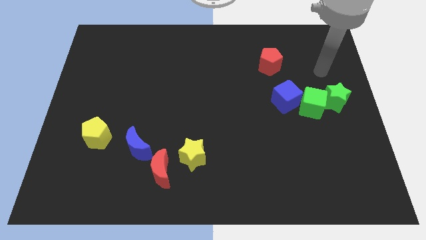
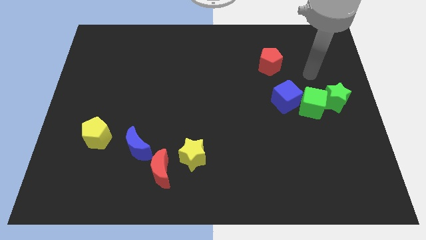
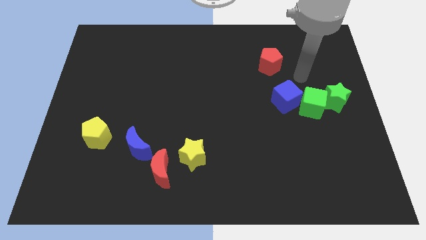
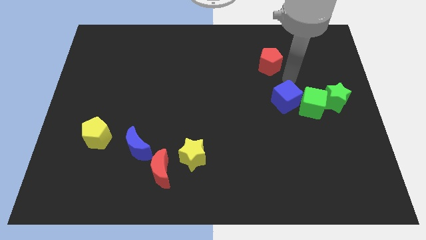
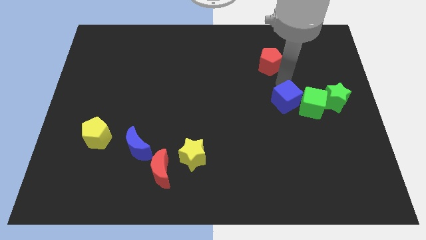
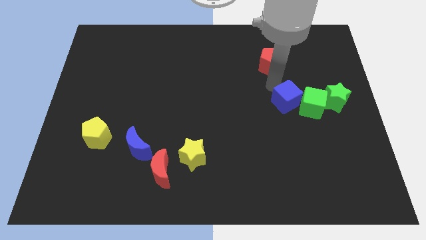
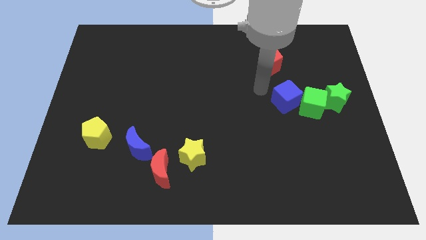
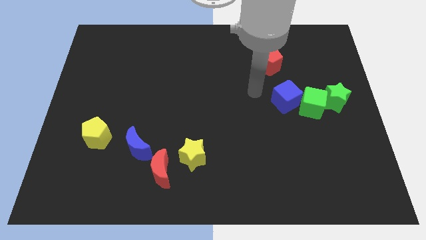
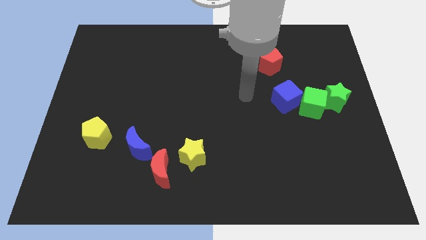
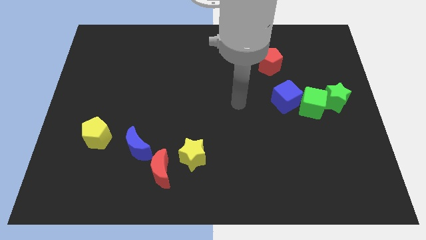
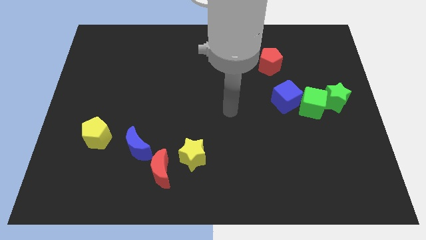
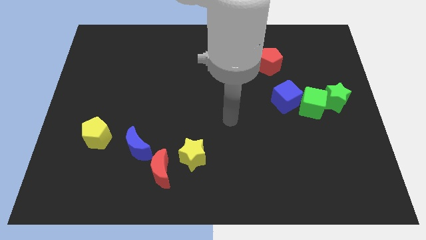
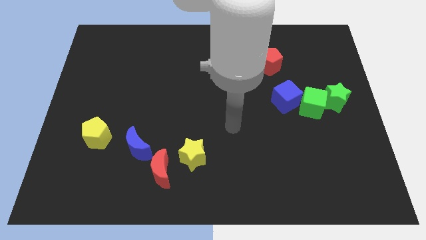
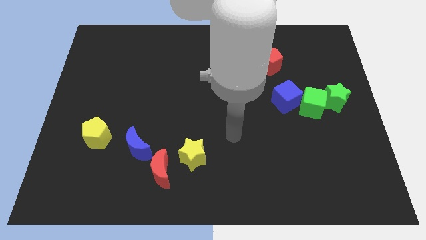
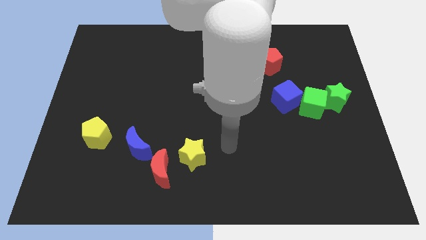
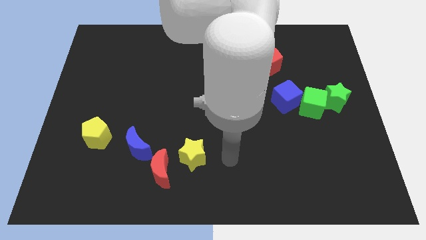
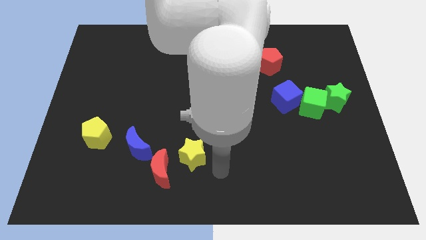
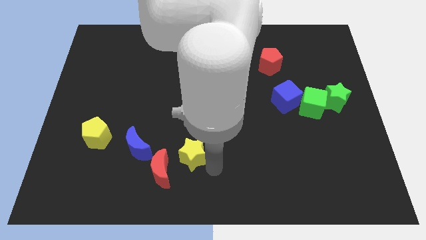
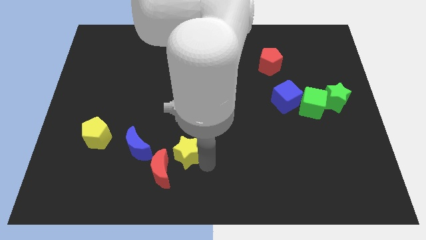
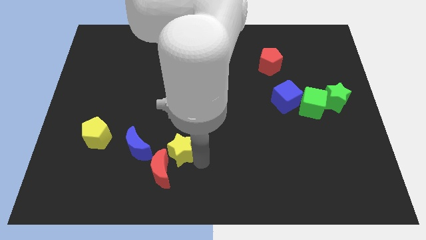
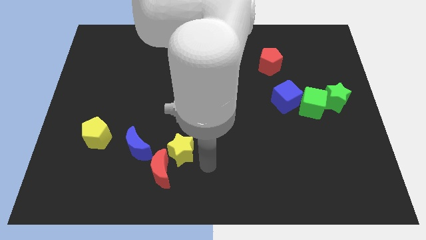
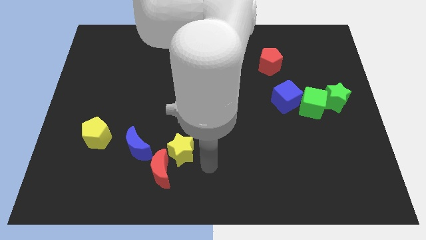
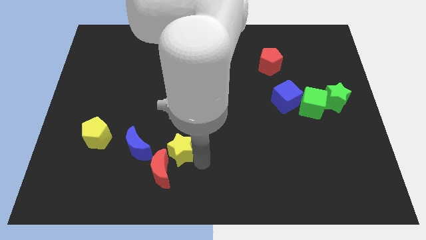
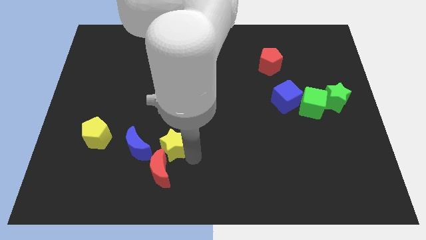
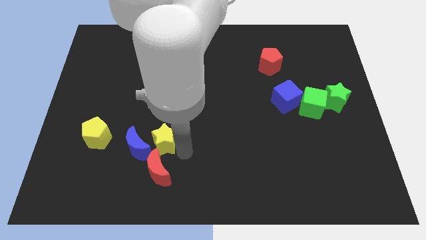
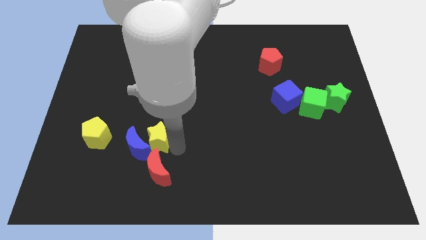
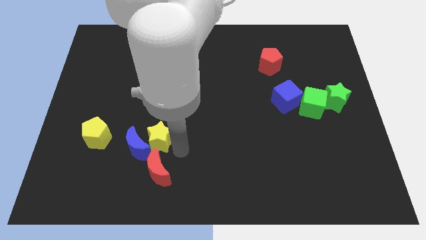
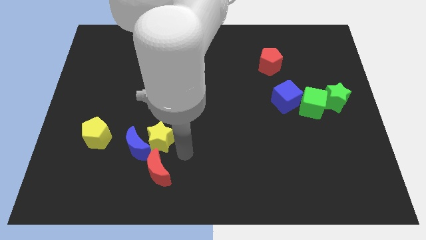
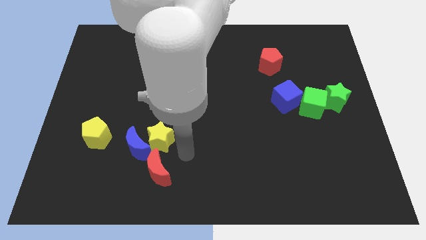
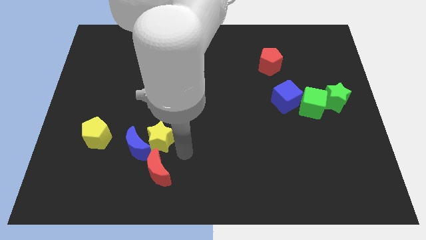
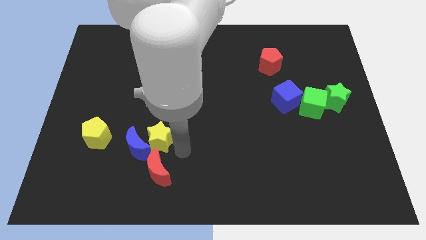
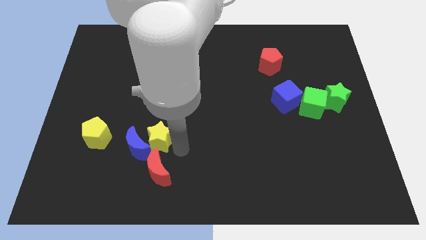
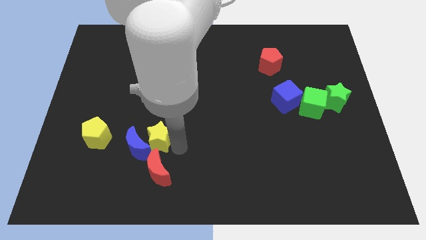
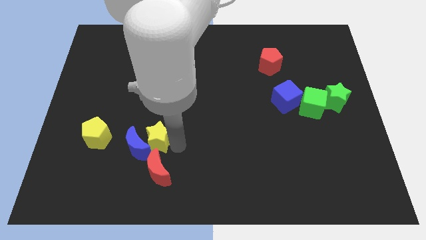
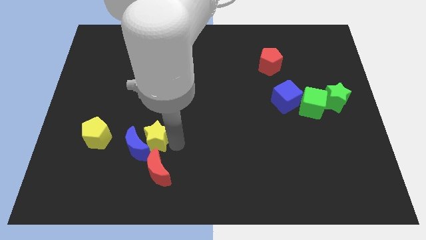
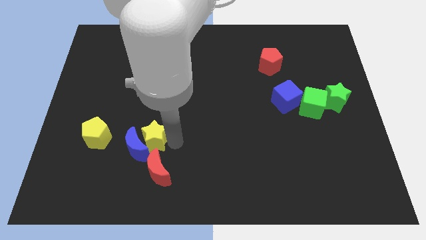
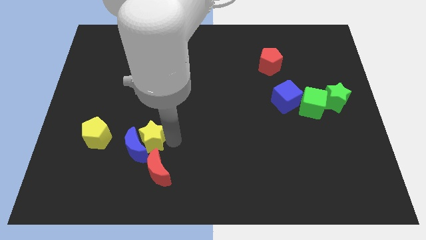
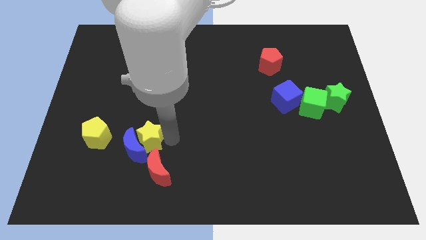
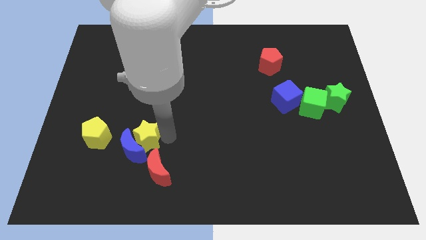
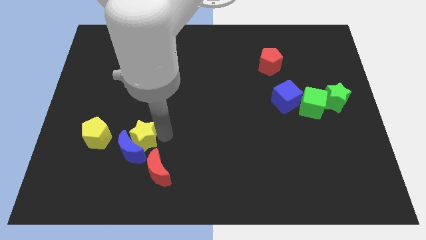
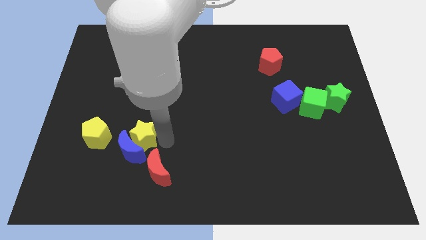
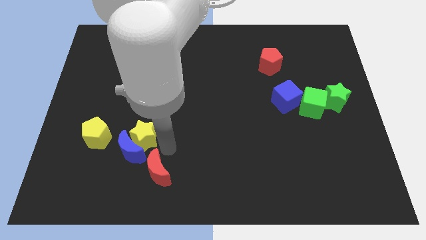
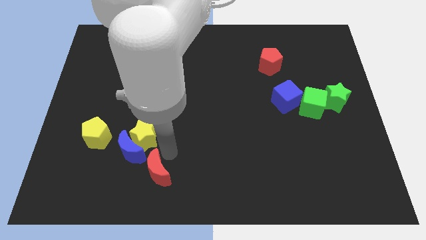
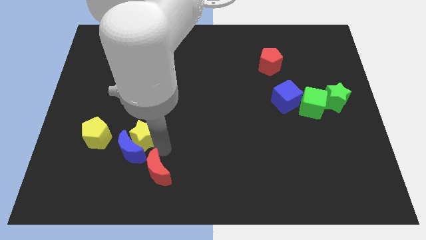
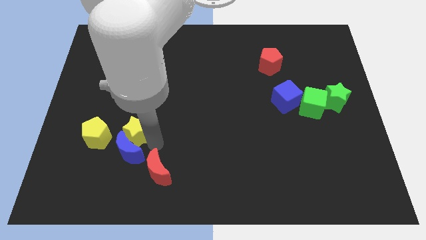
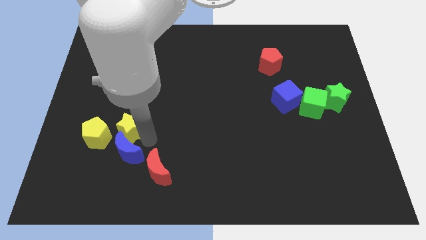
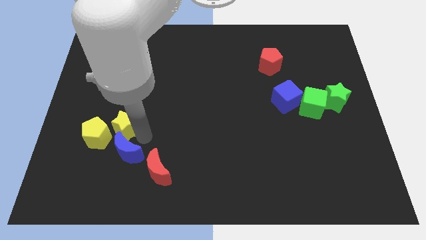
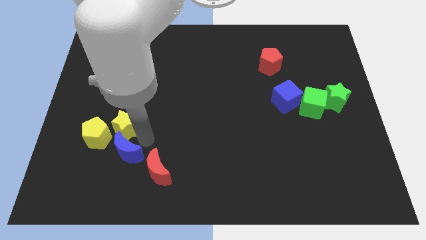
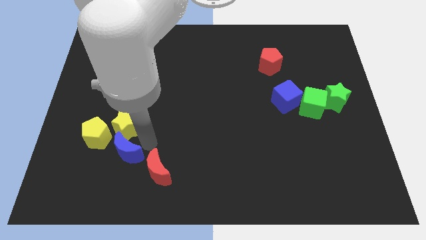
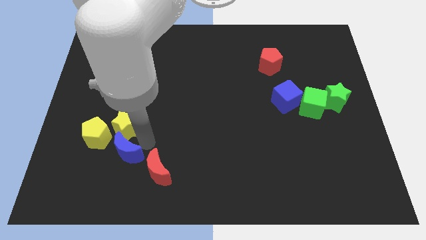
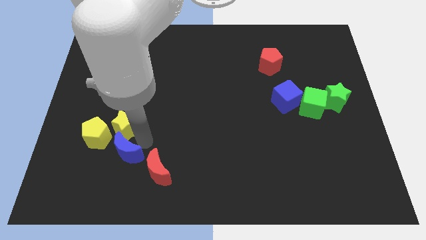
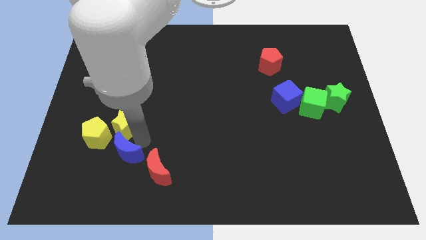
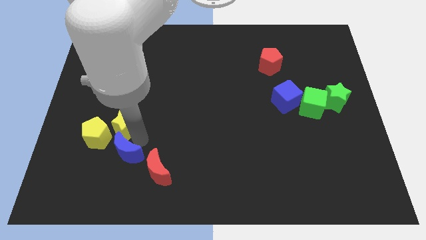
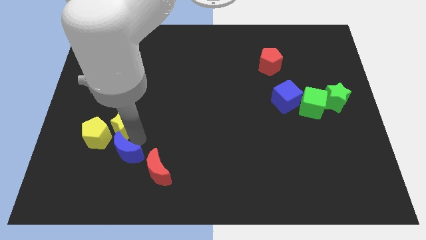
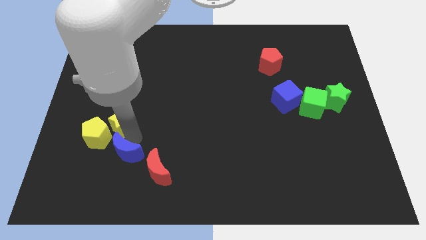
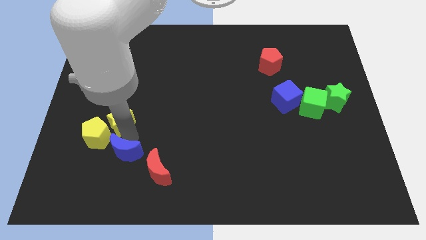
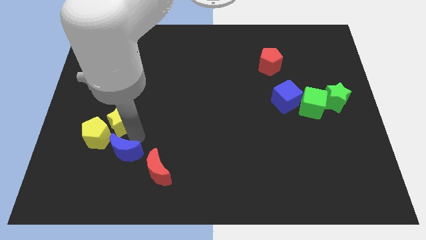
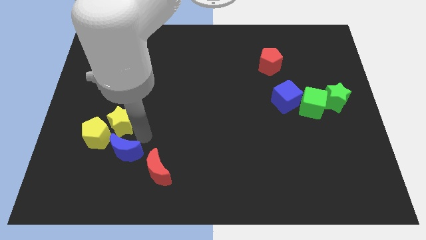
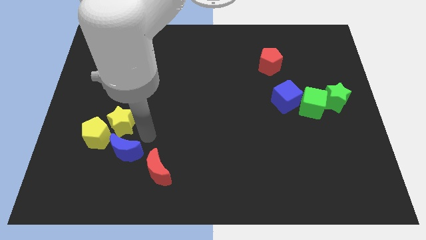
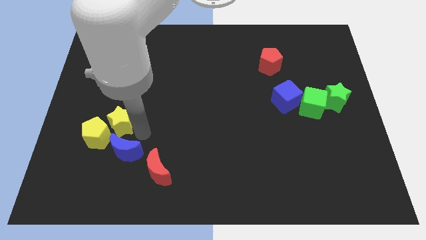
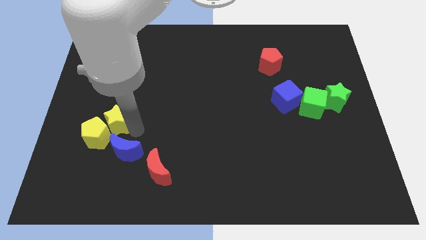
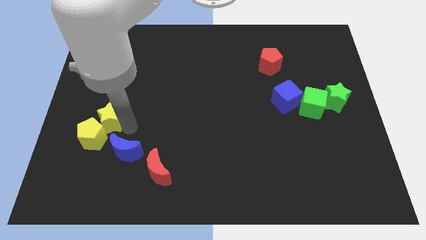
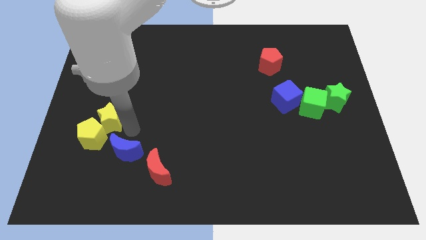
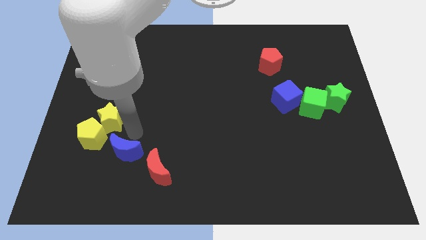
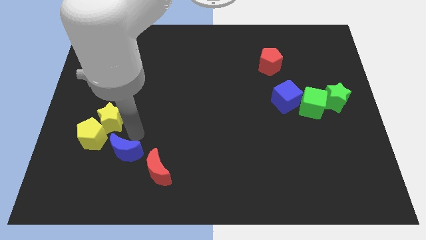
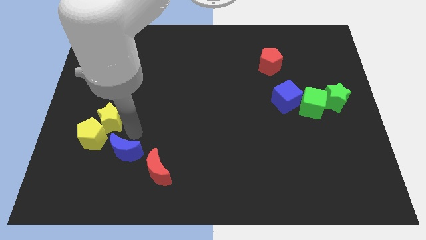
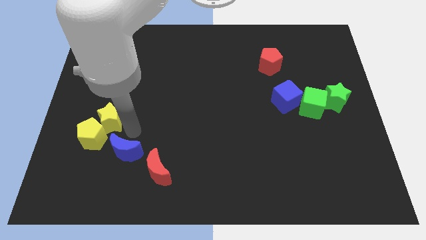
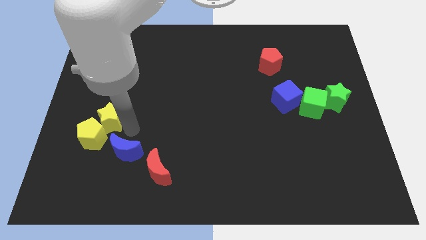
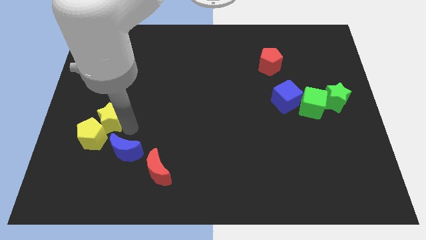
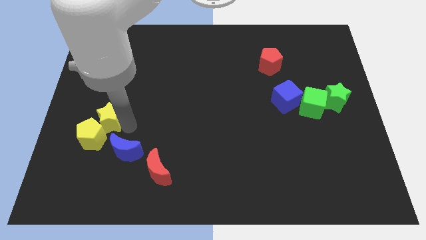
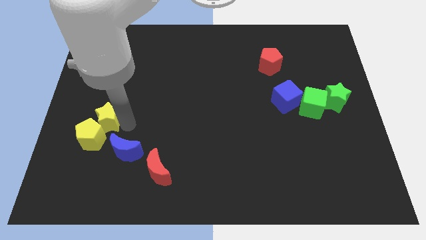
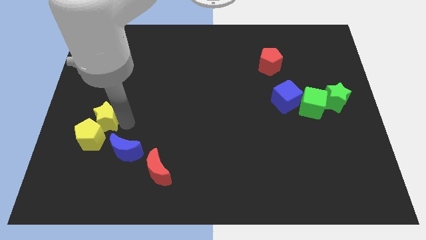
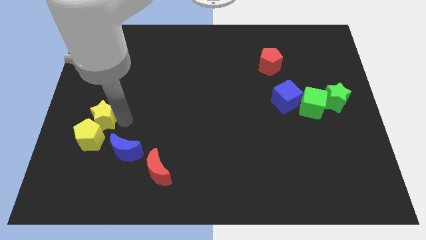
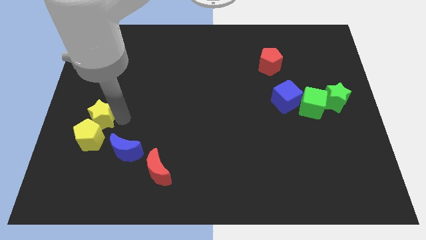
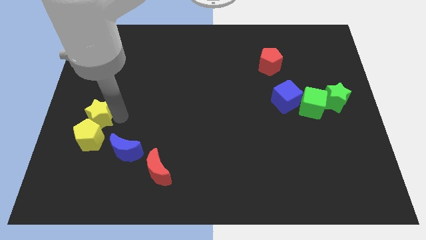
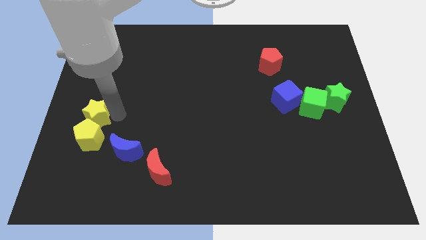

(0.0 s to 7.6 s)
slide the yellow star to the center left
